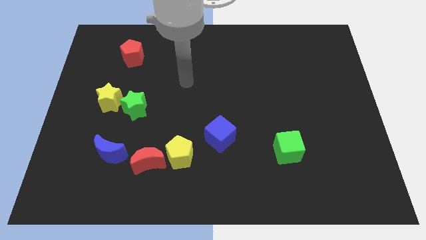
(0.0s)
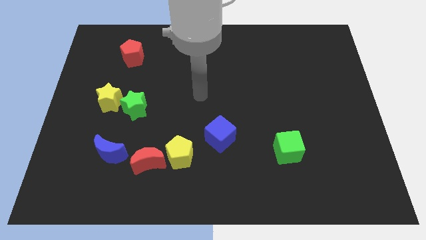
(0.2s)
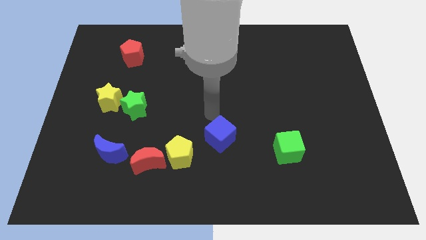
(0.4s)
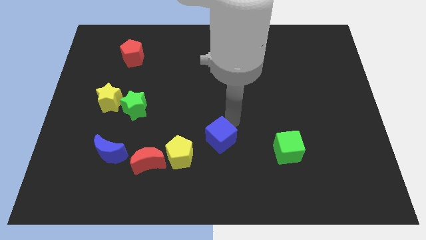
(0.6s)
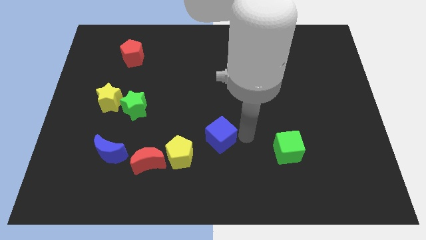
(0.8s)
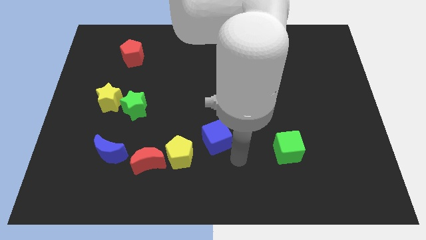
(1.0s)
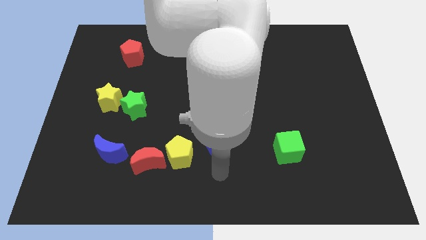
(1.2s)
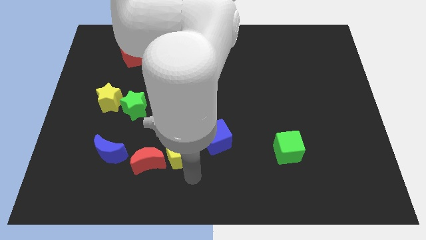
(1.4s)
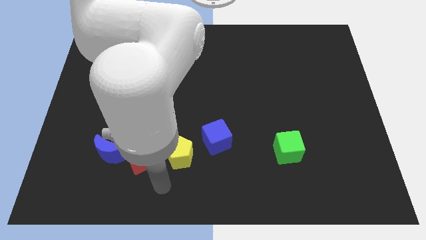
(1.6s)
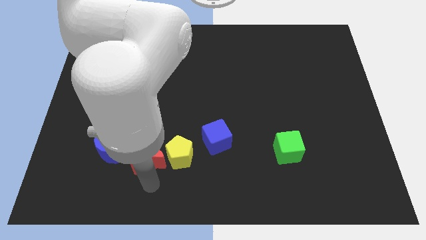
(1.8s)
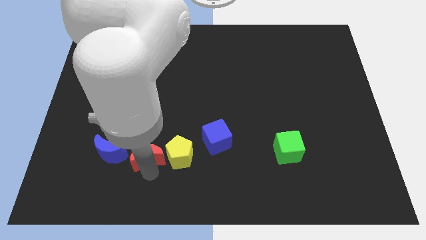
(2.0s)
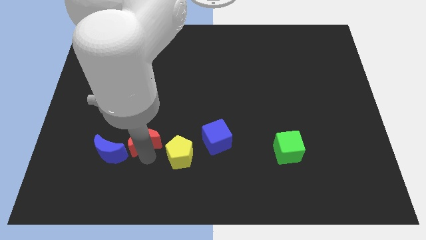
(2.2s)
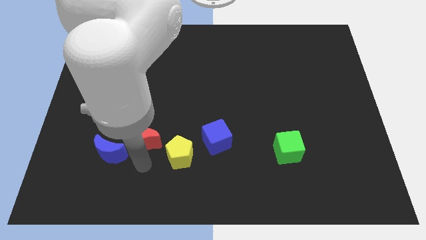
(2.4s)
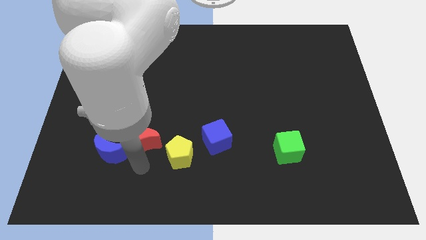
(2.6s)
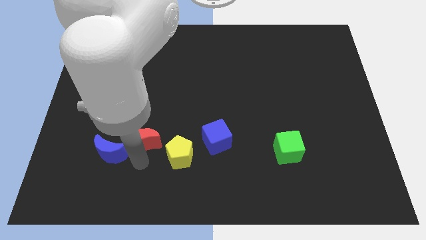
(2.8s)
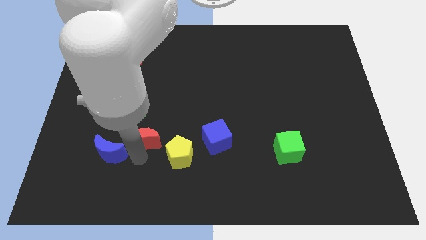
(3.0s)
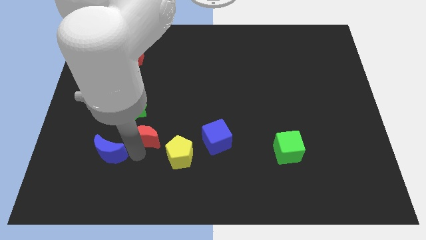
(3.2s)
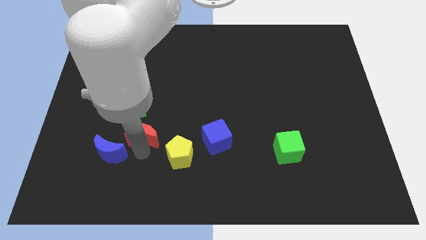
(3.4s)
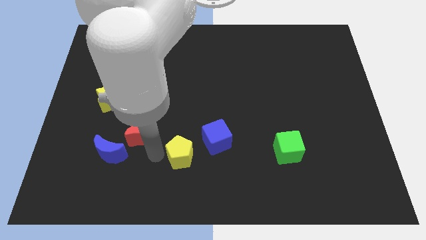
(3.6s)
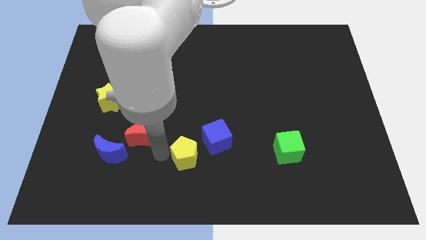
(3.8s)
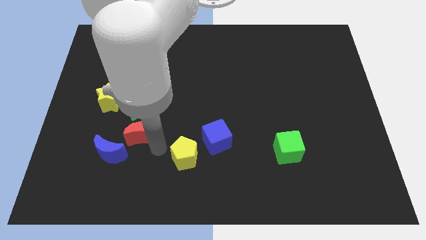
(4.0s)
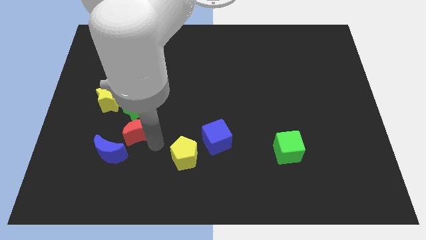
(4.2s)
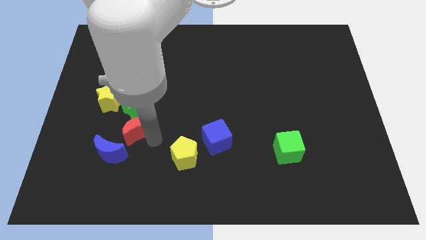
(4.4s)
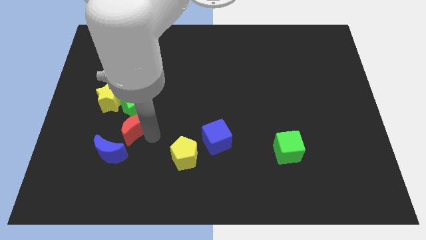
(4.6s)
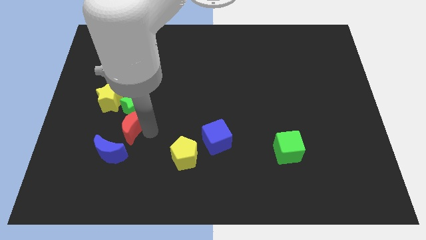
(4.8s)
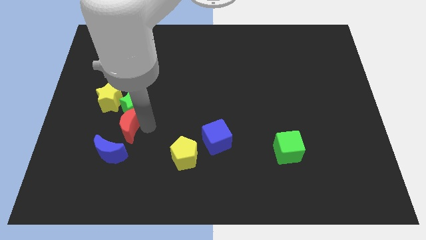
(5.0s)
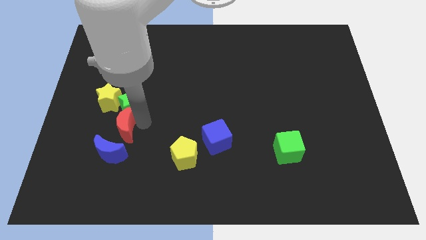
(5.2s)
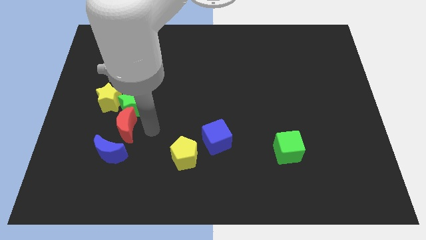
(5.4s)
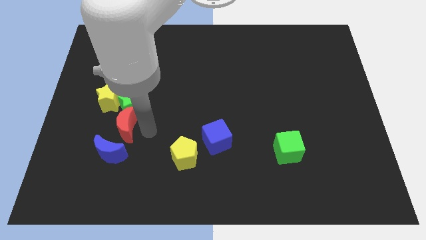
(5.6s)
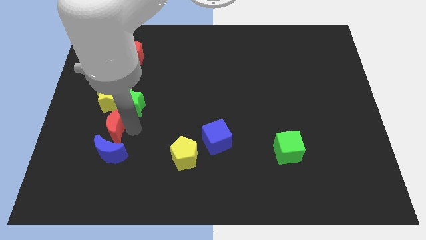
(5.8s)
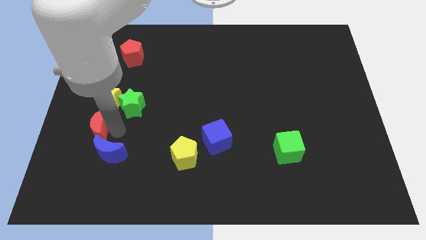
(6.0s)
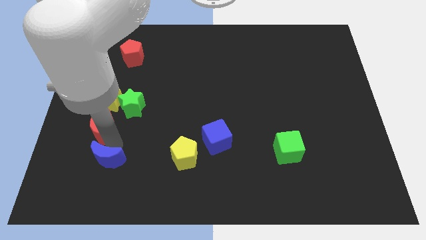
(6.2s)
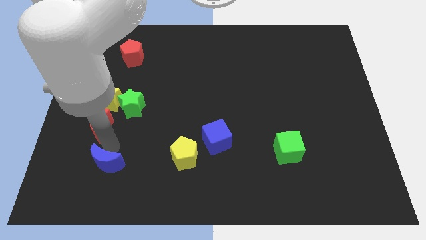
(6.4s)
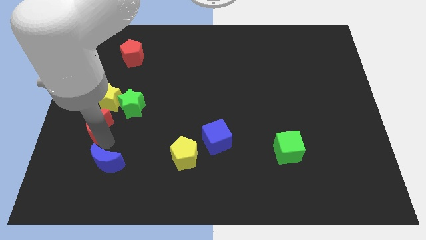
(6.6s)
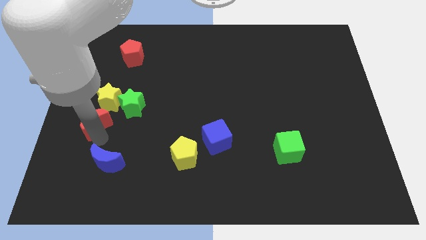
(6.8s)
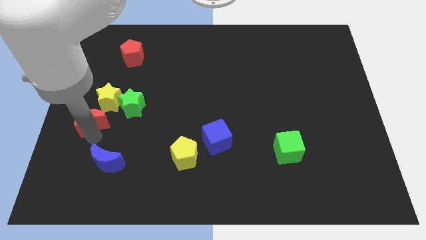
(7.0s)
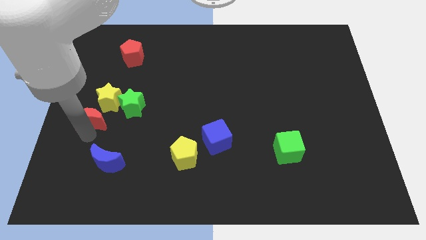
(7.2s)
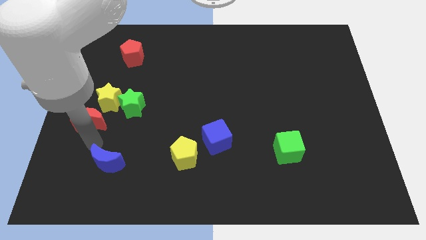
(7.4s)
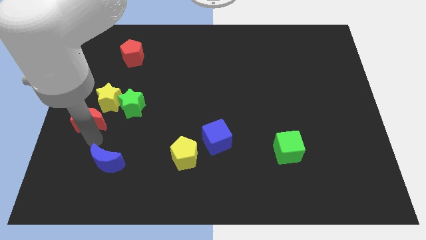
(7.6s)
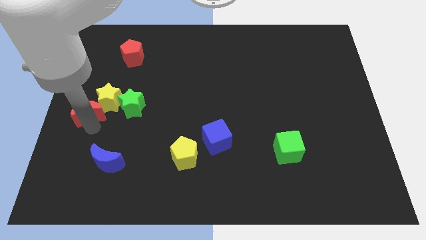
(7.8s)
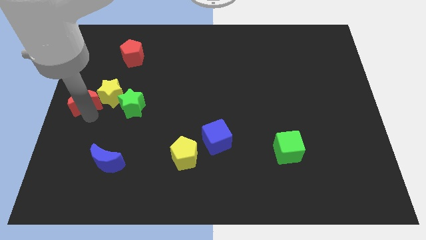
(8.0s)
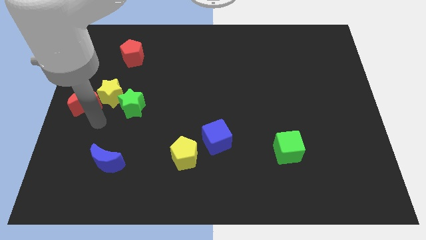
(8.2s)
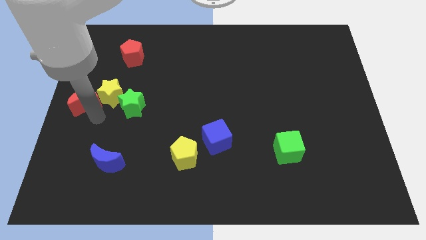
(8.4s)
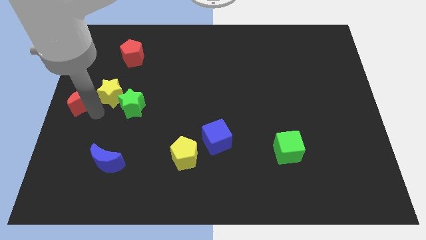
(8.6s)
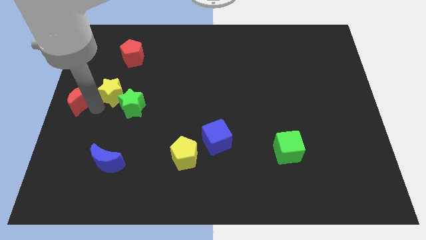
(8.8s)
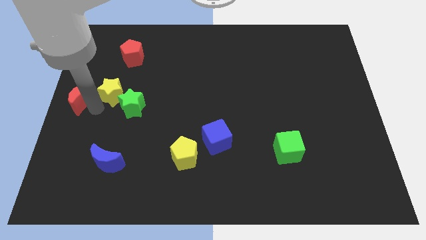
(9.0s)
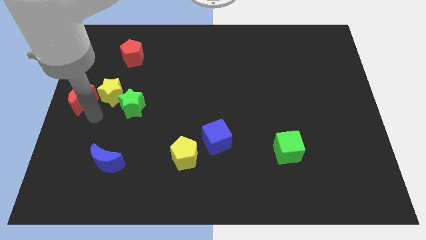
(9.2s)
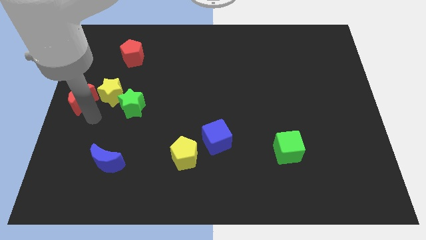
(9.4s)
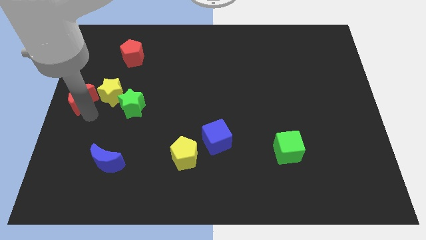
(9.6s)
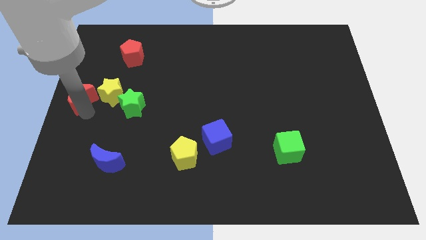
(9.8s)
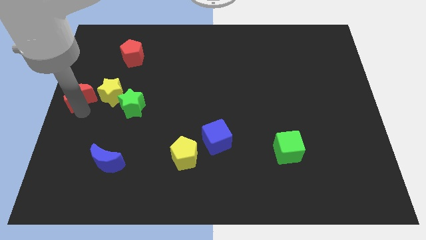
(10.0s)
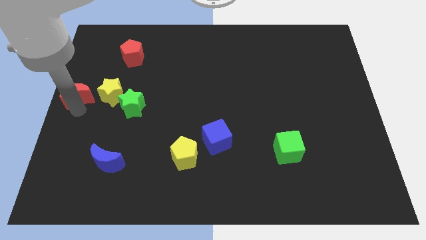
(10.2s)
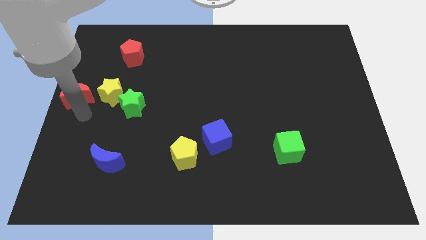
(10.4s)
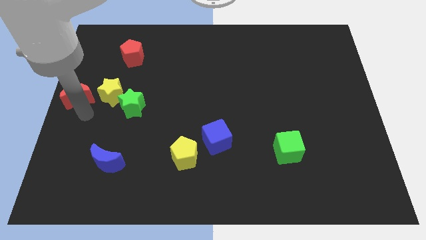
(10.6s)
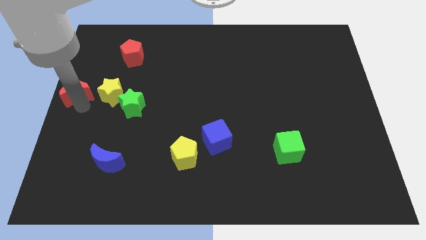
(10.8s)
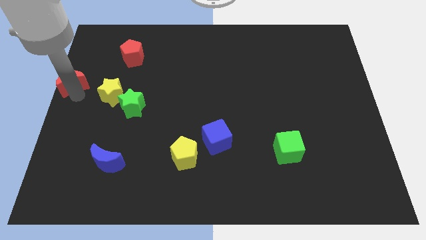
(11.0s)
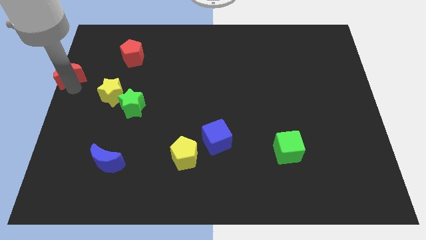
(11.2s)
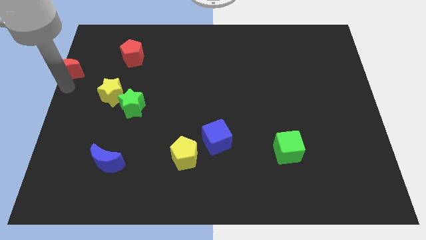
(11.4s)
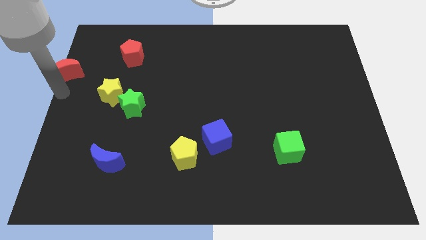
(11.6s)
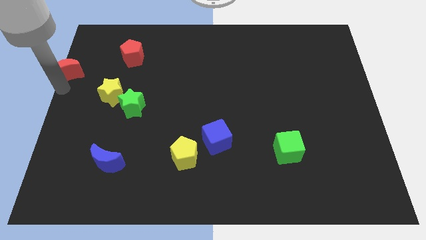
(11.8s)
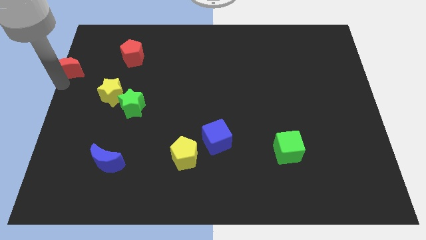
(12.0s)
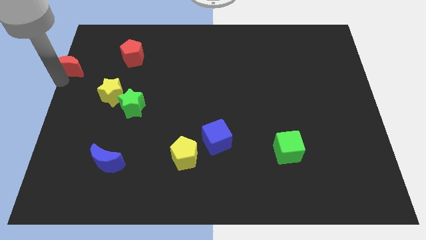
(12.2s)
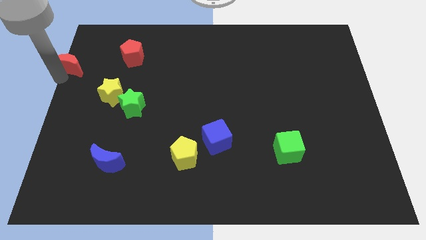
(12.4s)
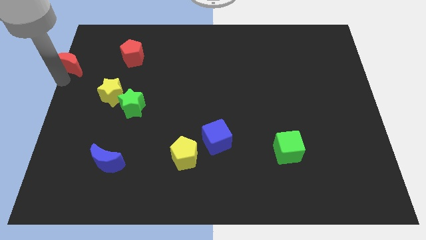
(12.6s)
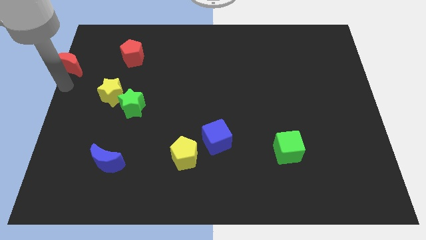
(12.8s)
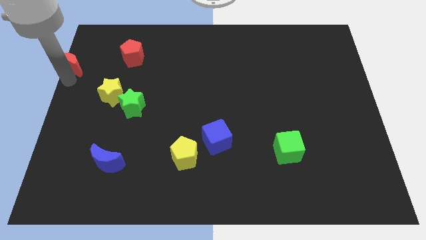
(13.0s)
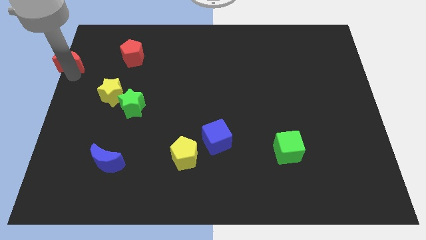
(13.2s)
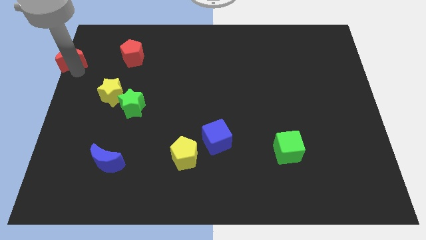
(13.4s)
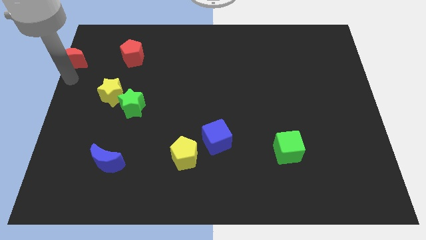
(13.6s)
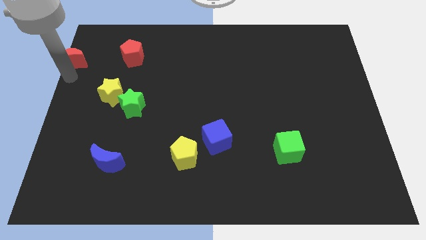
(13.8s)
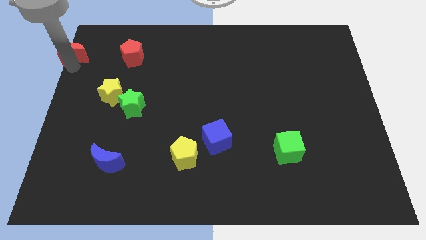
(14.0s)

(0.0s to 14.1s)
push the red moon to the upper left corner
